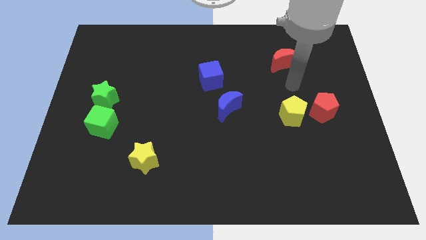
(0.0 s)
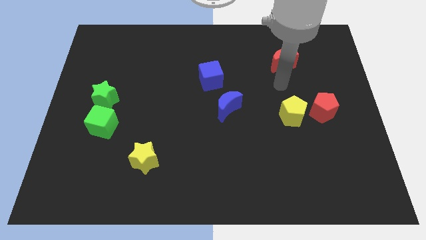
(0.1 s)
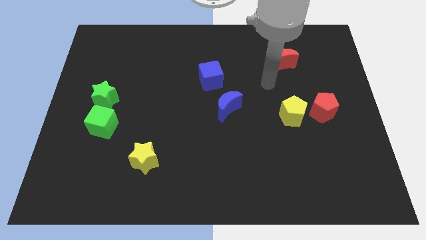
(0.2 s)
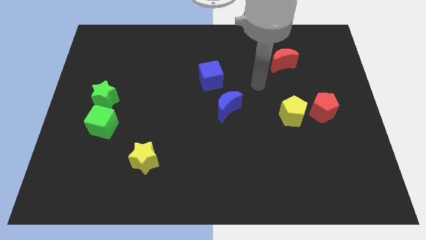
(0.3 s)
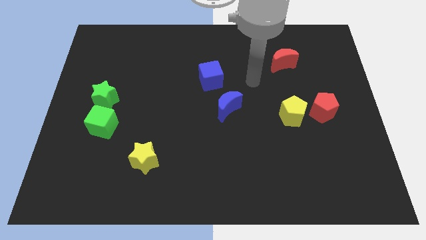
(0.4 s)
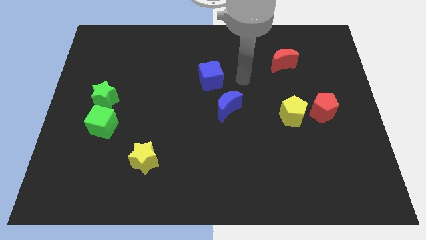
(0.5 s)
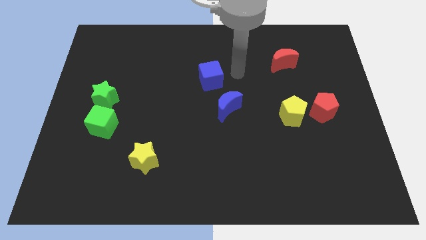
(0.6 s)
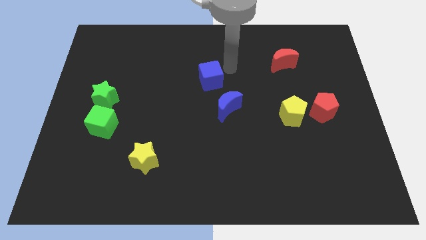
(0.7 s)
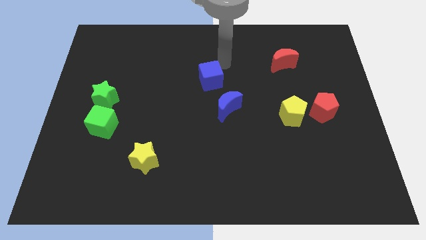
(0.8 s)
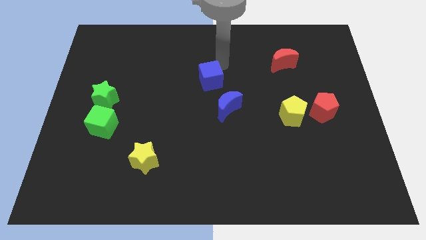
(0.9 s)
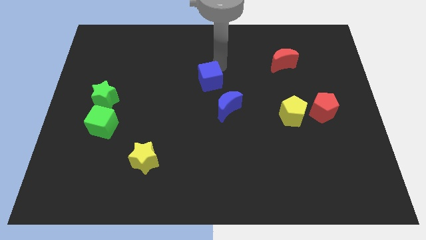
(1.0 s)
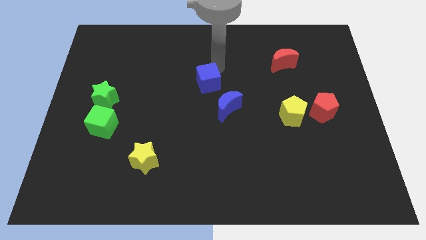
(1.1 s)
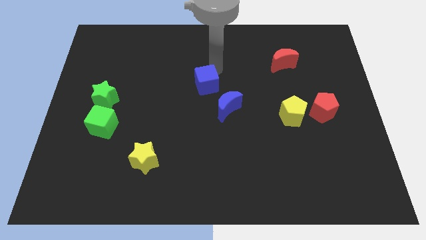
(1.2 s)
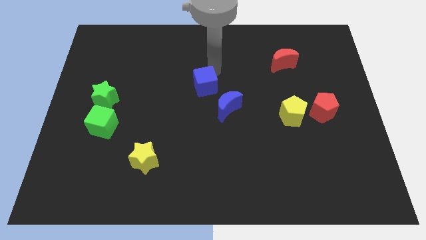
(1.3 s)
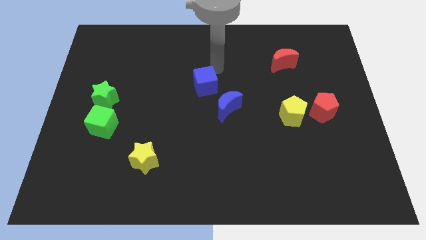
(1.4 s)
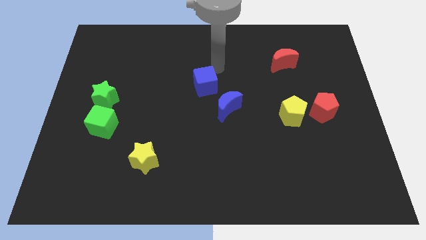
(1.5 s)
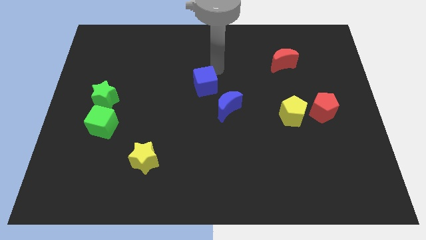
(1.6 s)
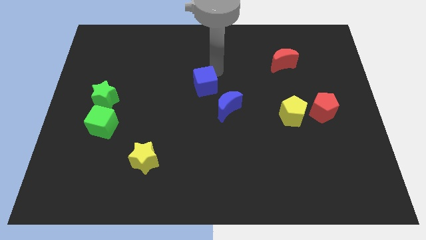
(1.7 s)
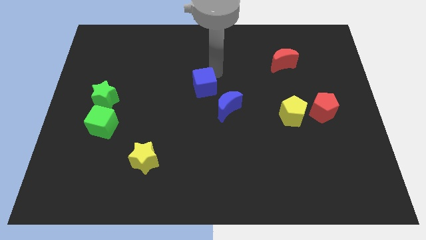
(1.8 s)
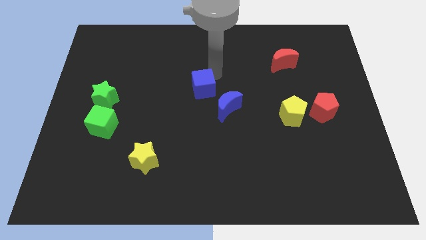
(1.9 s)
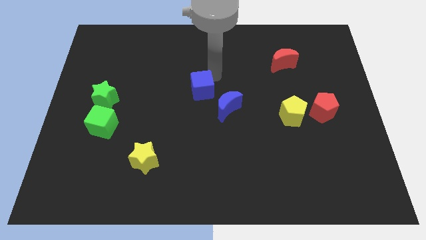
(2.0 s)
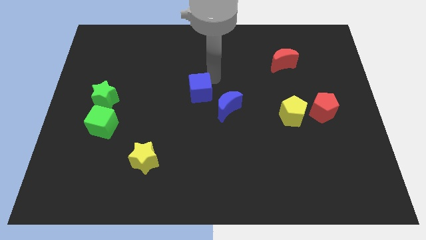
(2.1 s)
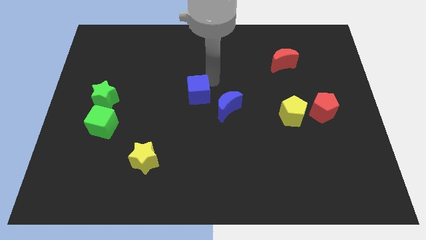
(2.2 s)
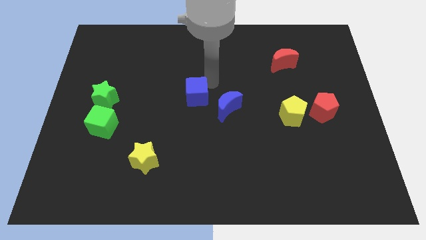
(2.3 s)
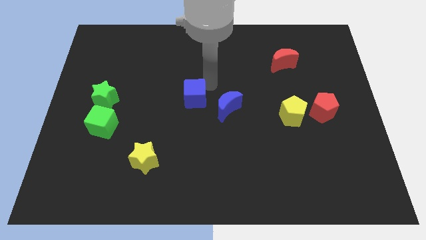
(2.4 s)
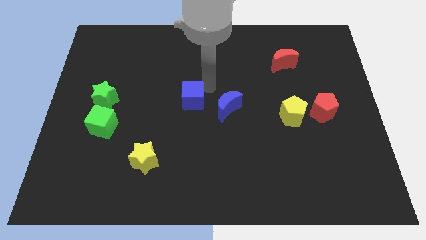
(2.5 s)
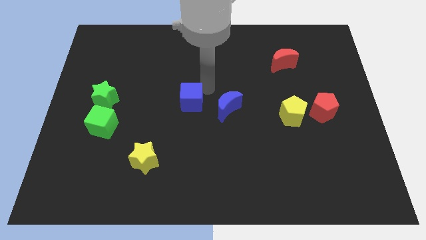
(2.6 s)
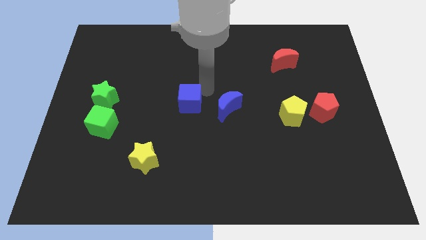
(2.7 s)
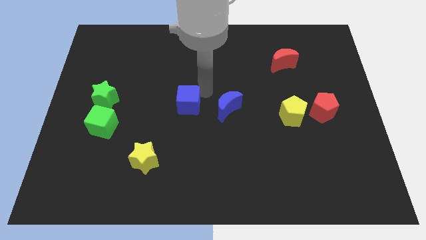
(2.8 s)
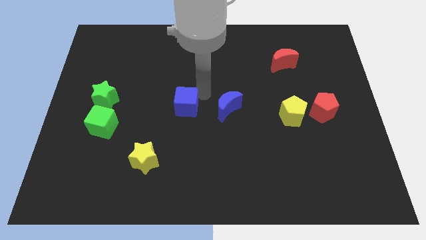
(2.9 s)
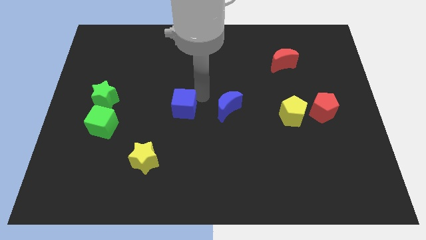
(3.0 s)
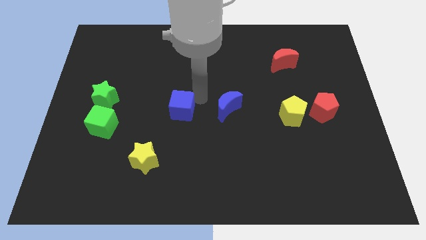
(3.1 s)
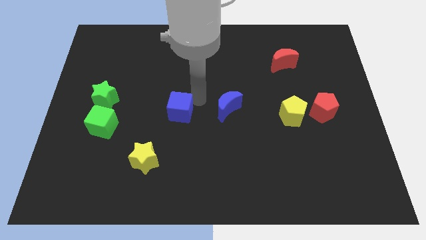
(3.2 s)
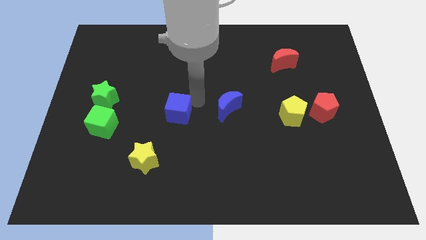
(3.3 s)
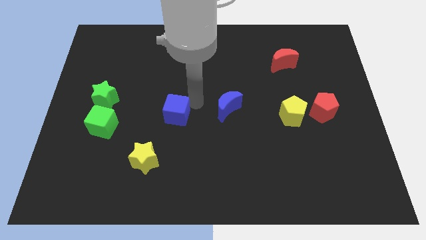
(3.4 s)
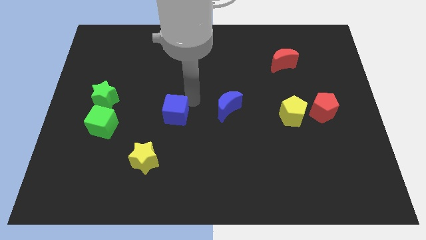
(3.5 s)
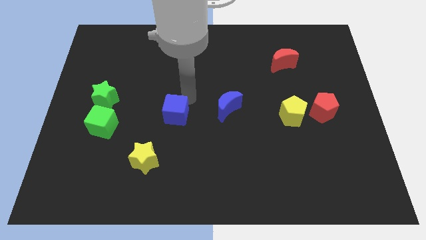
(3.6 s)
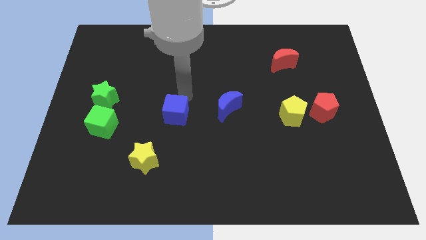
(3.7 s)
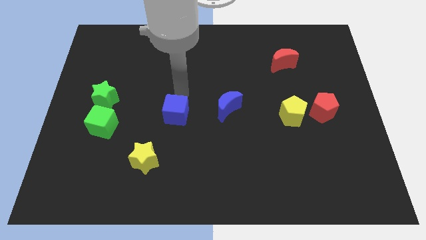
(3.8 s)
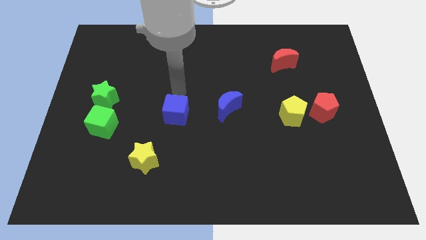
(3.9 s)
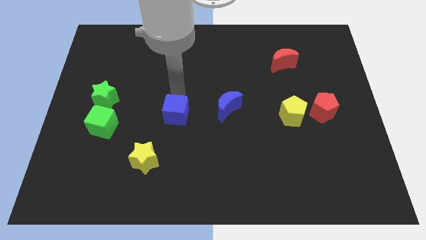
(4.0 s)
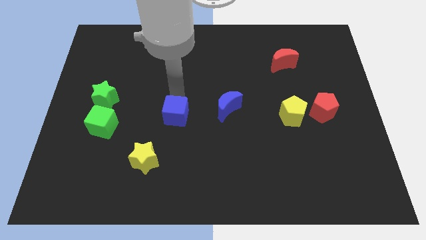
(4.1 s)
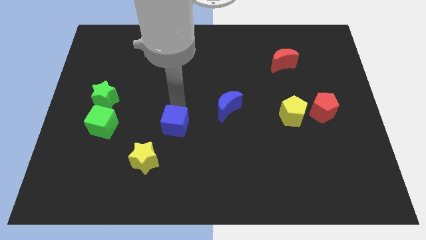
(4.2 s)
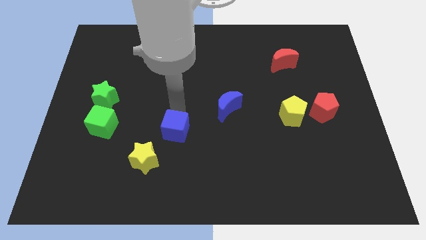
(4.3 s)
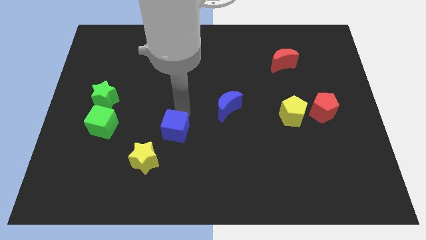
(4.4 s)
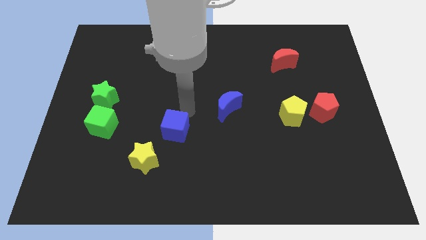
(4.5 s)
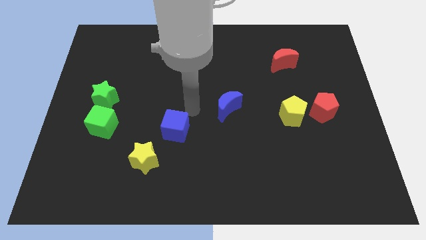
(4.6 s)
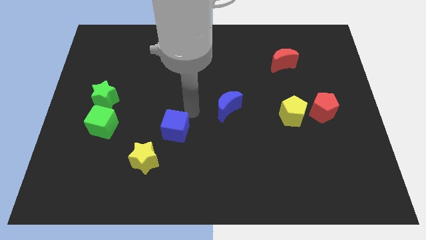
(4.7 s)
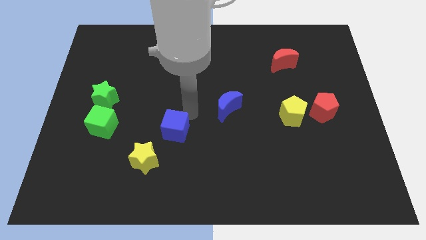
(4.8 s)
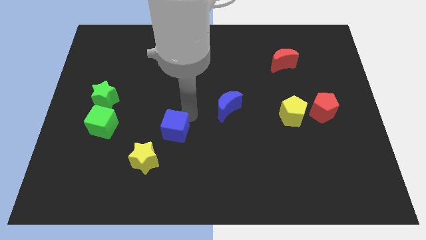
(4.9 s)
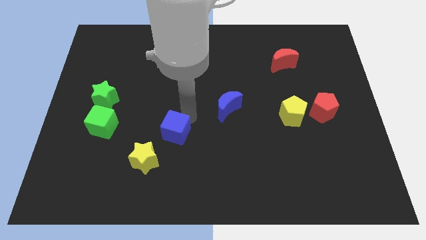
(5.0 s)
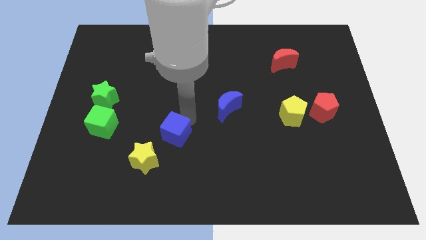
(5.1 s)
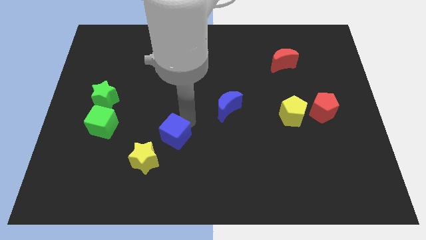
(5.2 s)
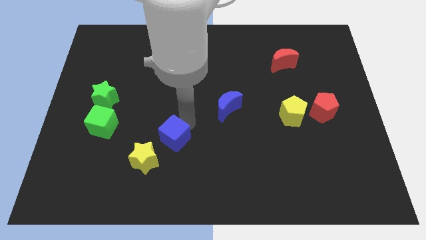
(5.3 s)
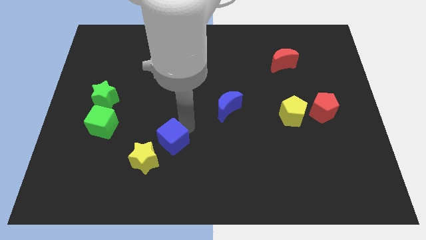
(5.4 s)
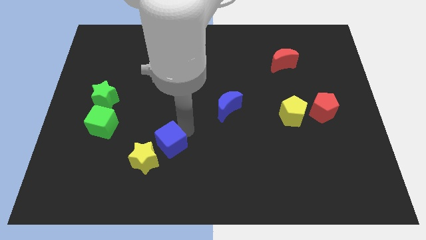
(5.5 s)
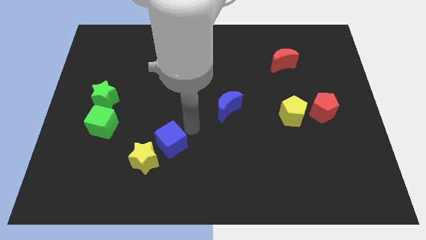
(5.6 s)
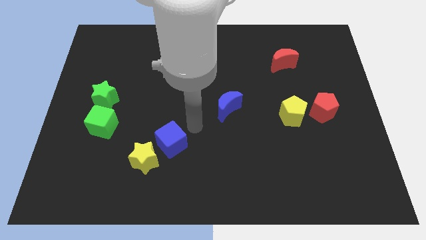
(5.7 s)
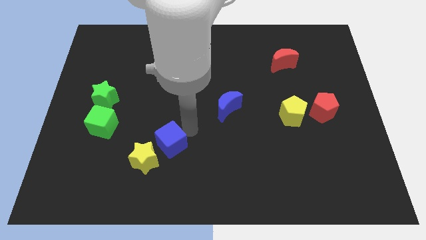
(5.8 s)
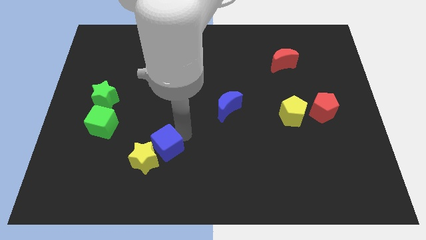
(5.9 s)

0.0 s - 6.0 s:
put the blue cube towards the yellow star
